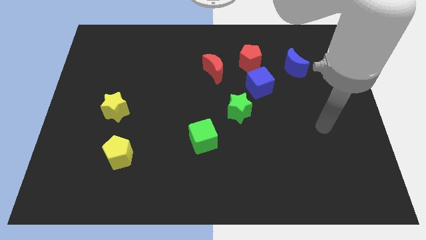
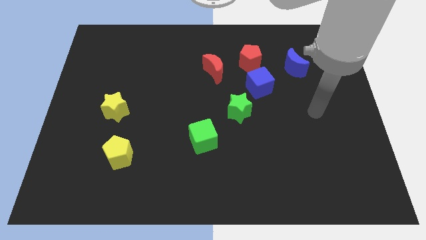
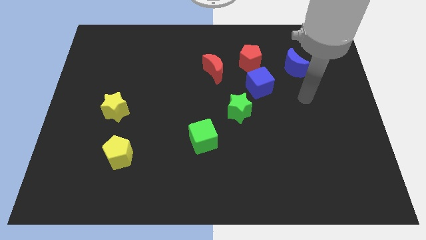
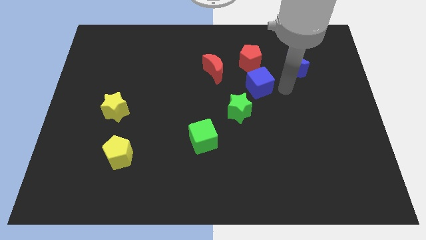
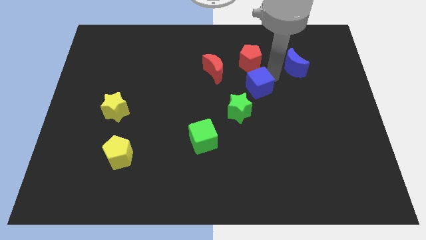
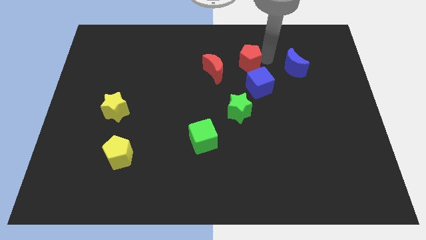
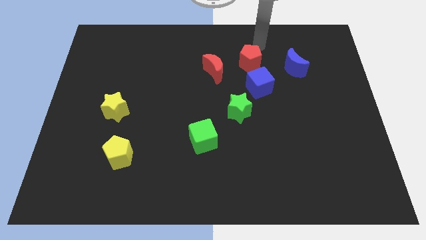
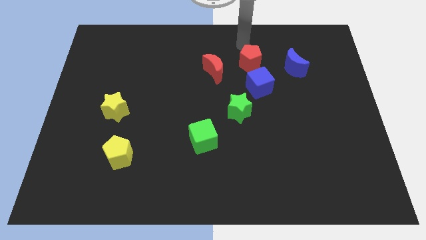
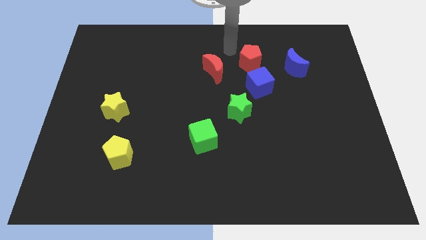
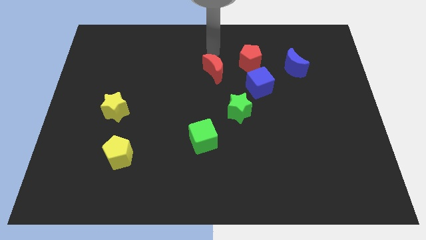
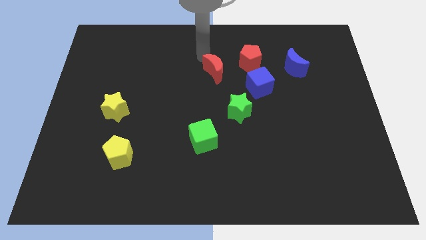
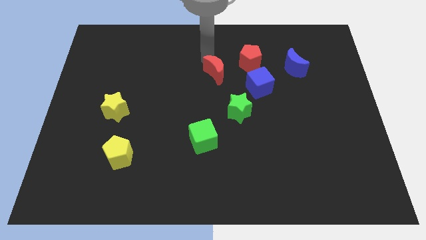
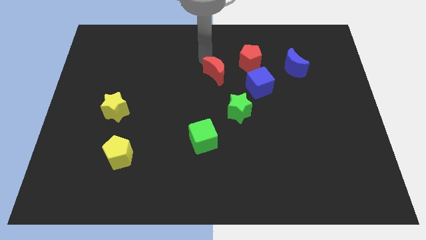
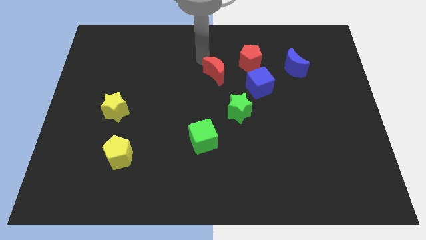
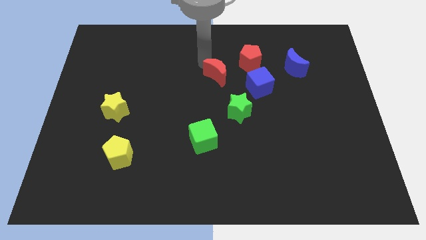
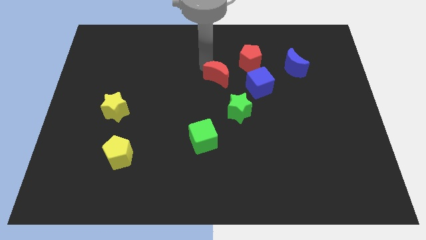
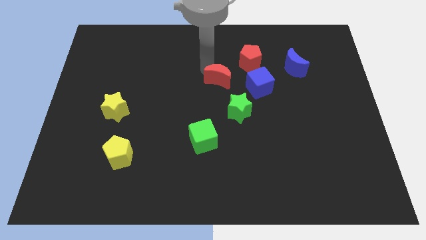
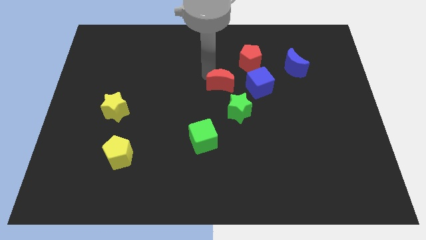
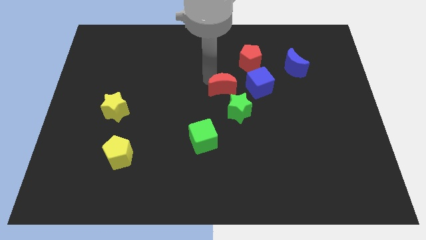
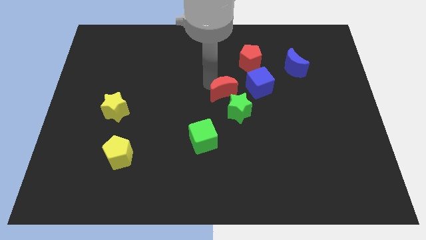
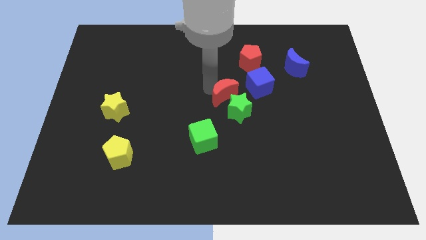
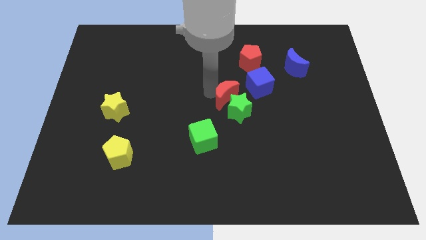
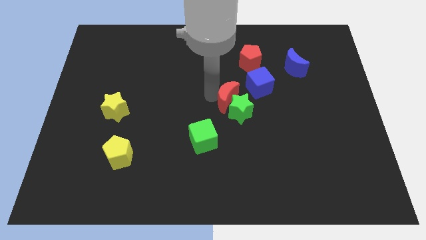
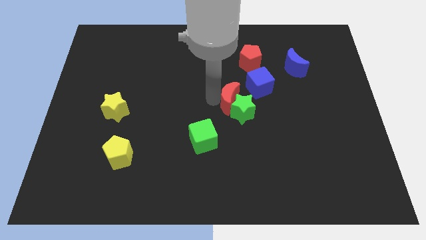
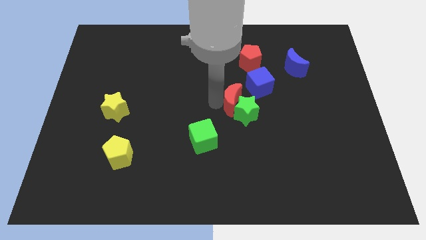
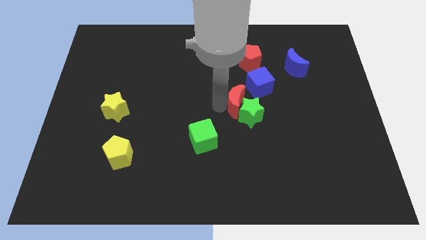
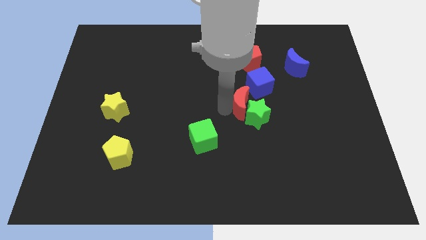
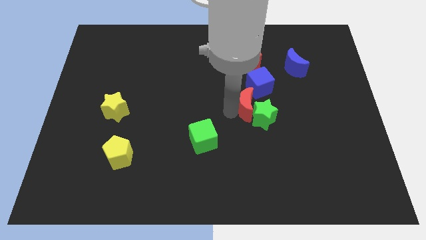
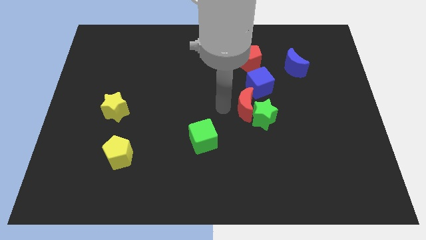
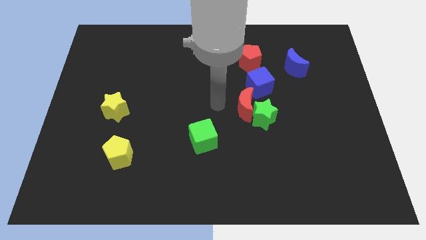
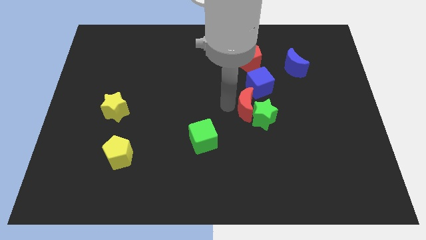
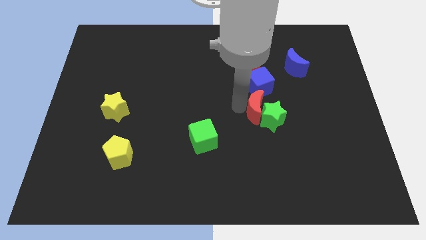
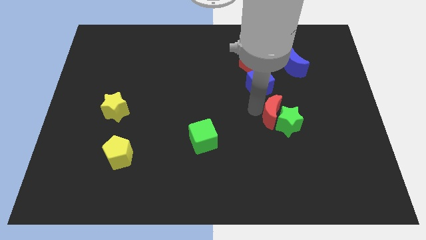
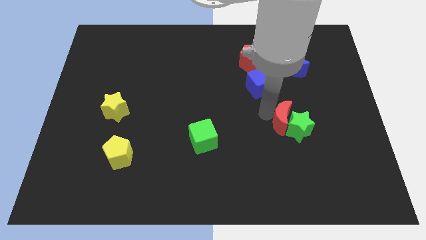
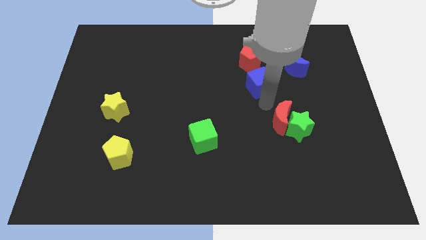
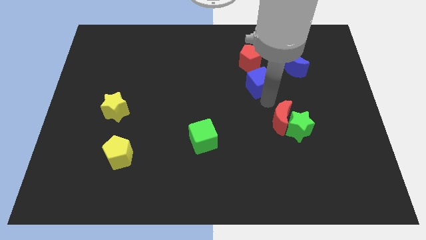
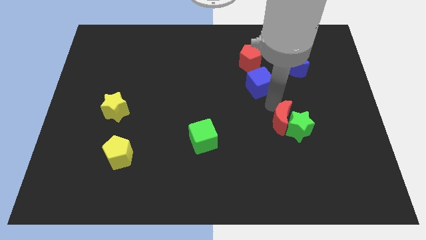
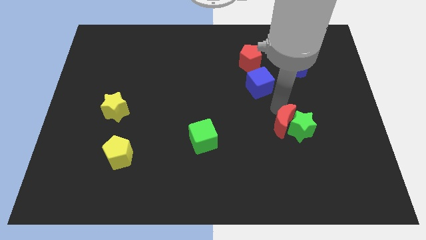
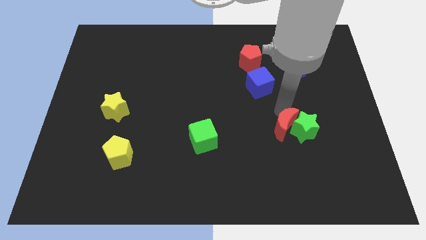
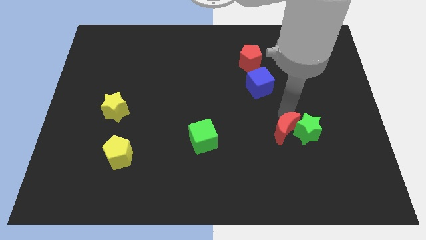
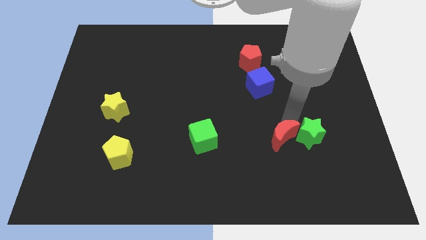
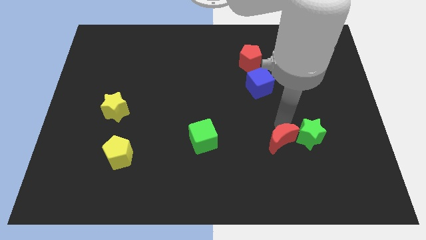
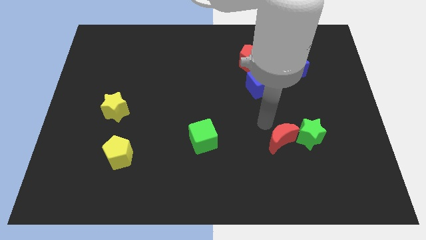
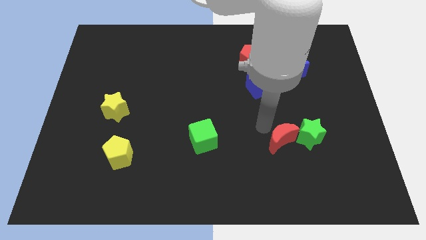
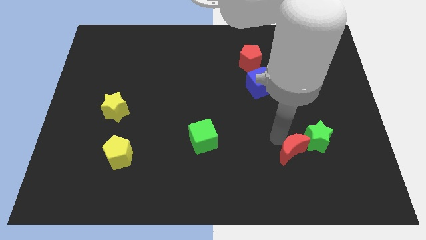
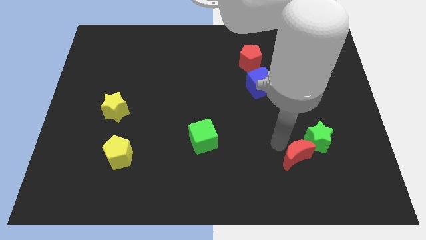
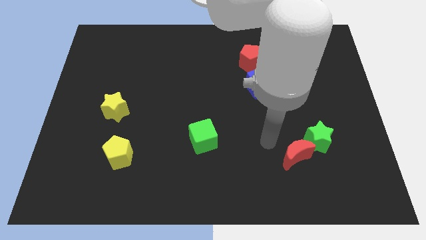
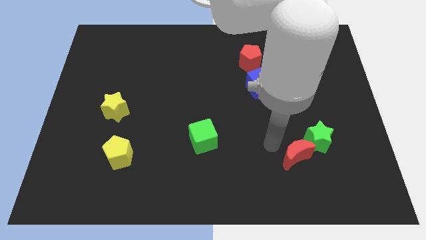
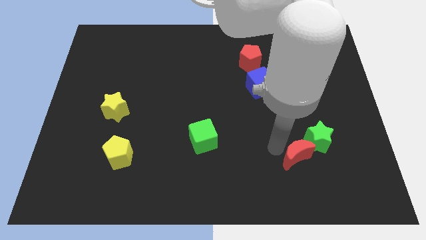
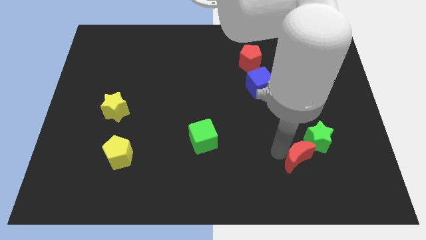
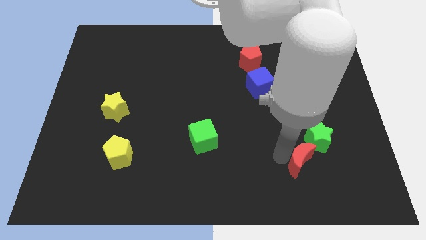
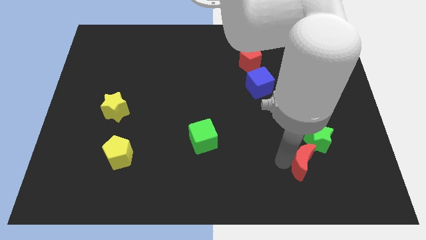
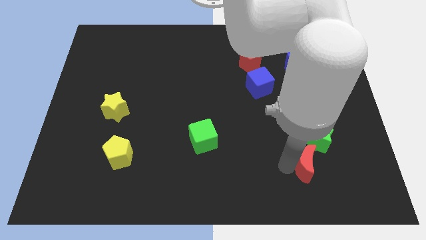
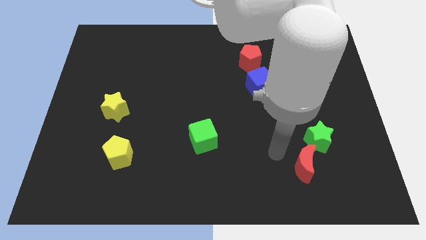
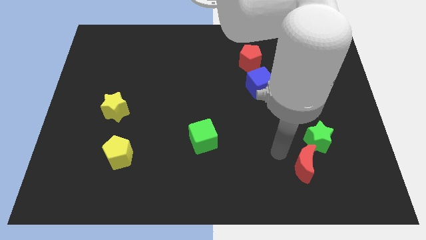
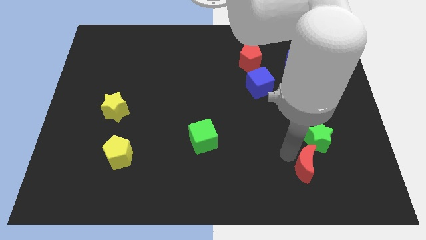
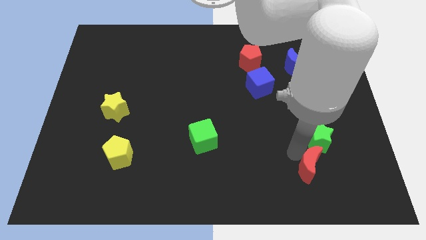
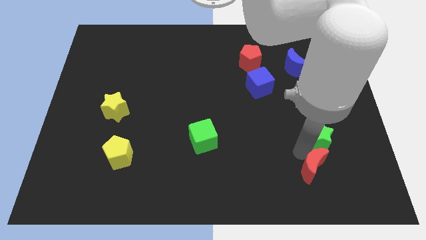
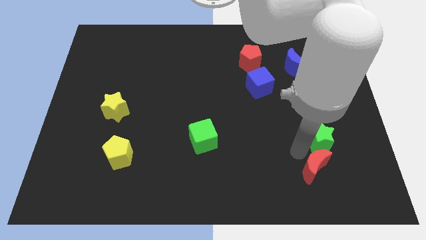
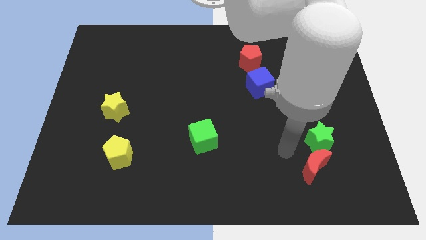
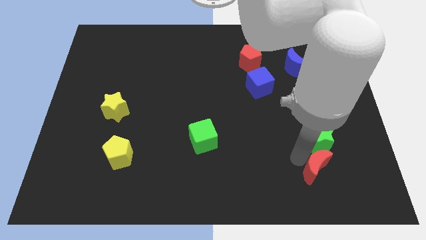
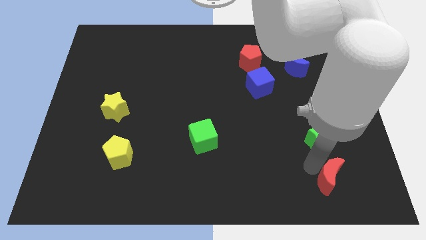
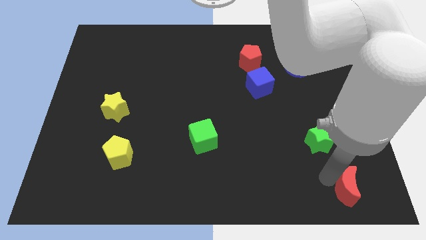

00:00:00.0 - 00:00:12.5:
slide the red moon to the bottom right of the board

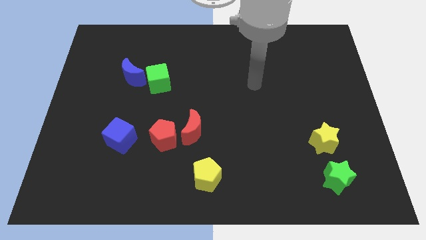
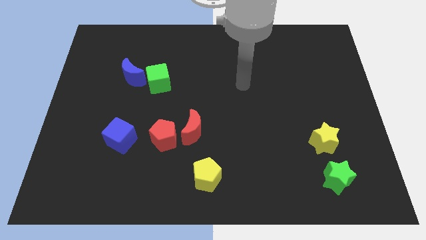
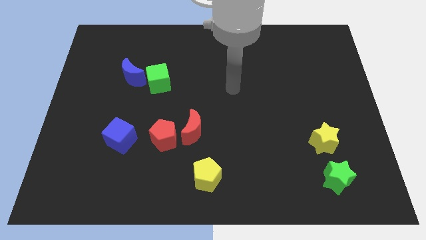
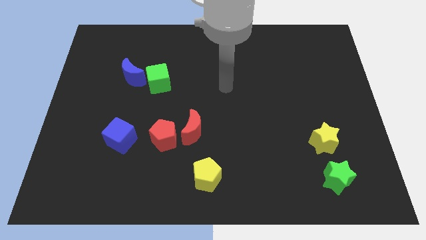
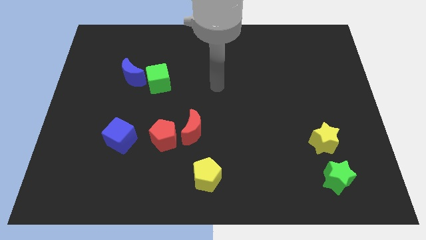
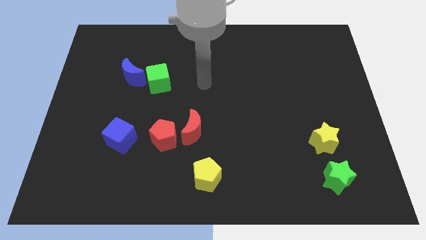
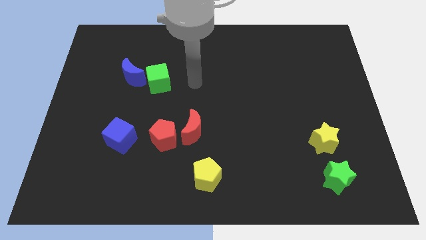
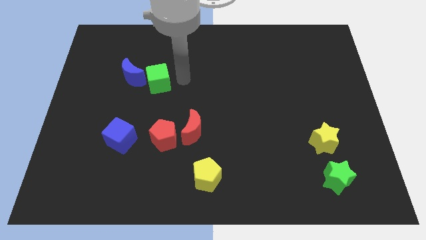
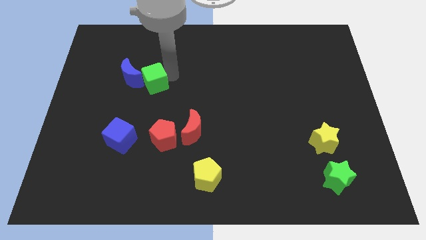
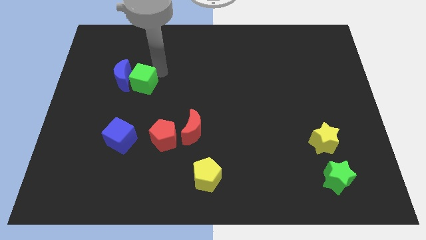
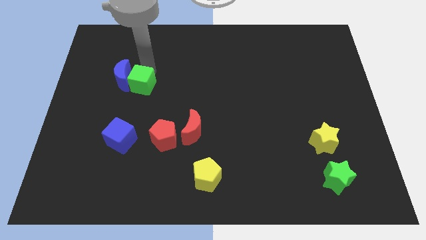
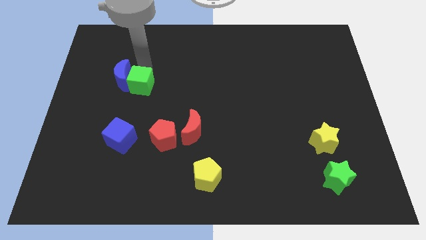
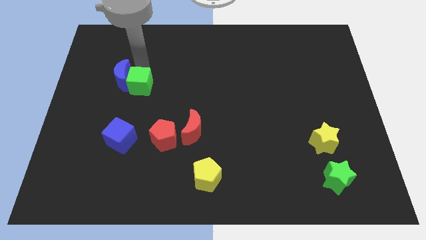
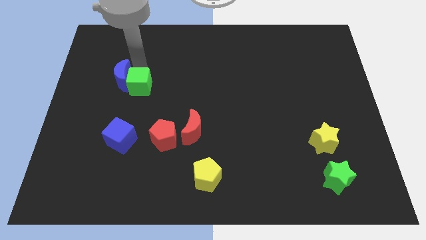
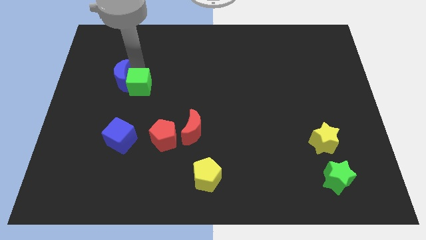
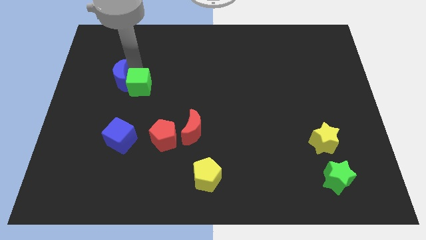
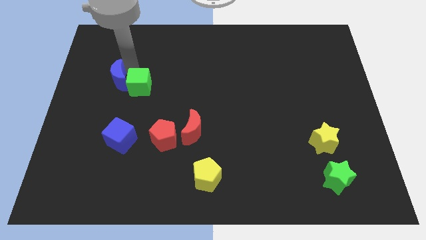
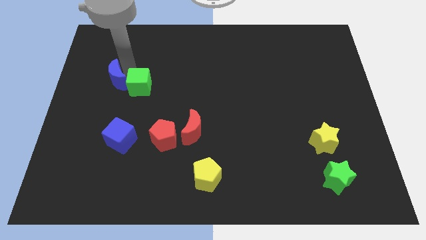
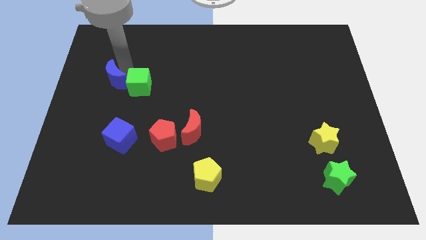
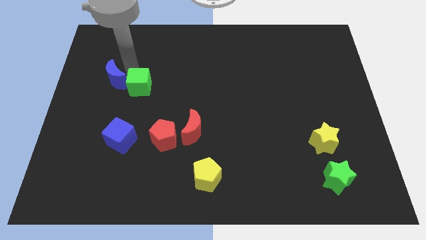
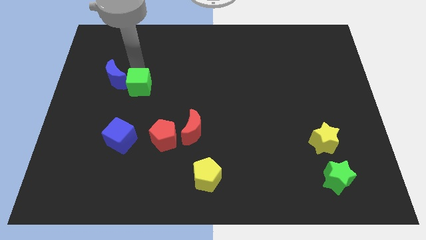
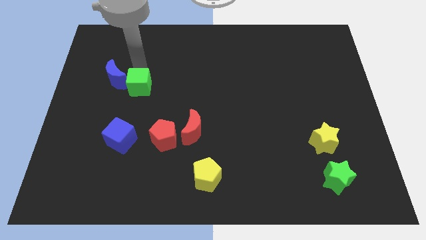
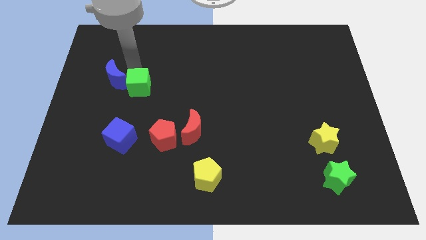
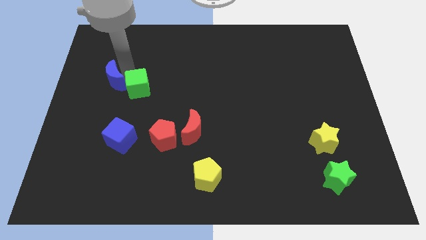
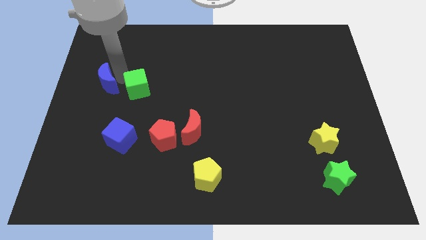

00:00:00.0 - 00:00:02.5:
move the blue moon to the left side of the board
